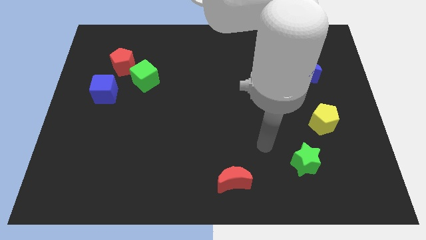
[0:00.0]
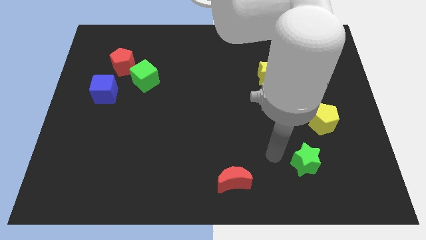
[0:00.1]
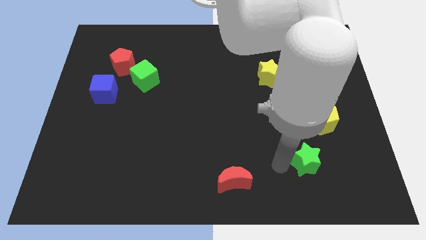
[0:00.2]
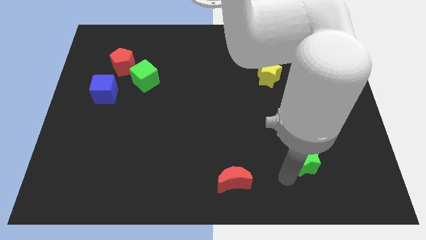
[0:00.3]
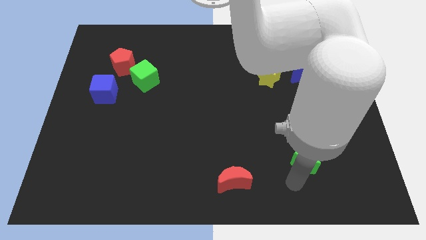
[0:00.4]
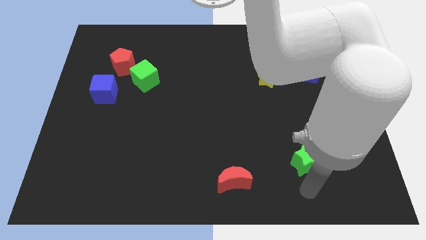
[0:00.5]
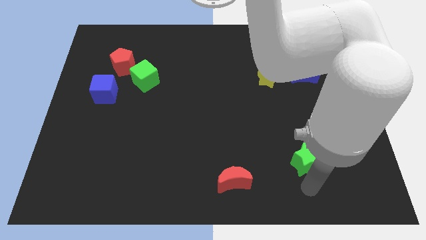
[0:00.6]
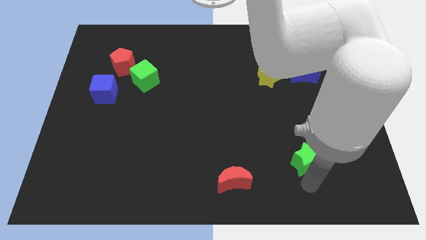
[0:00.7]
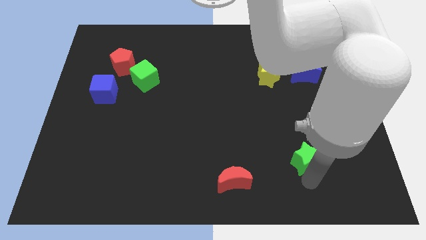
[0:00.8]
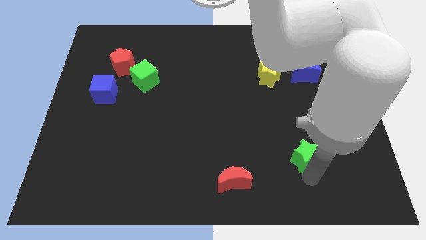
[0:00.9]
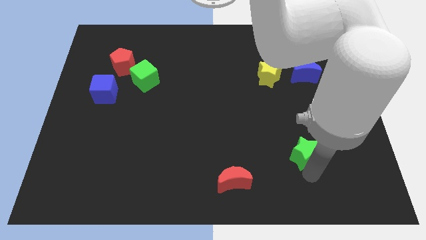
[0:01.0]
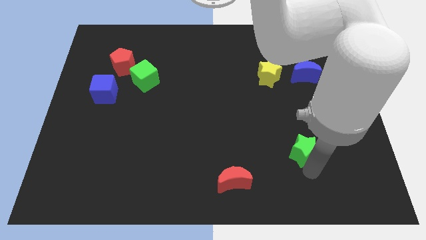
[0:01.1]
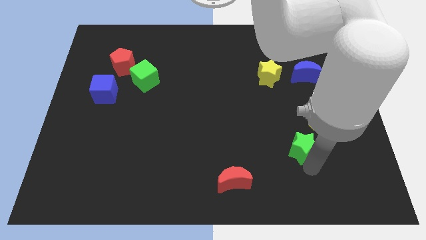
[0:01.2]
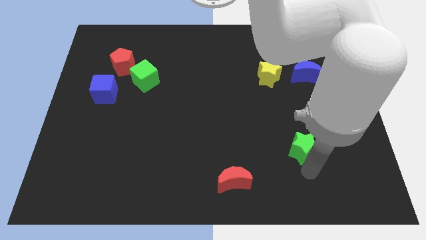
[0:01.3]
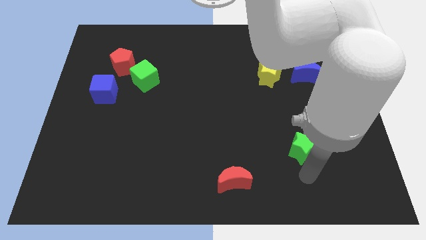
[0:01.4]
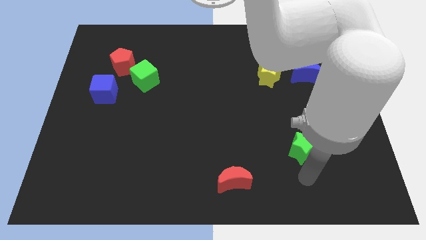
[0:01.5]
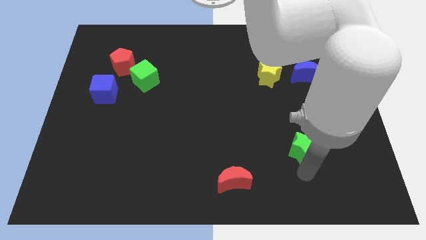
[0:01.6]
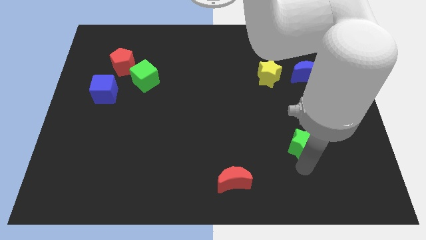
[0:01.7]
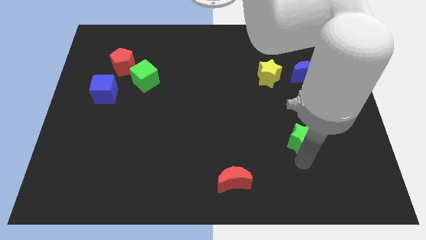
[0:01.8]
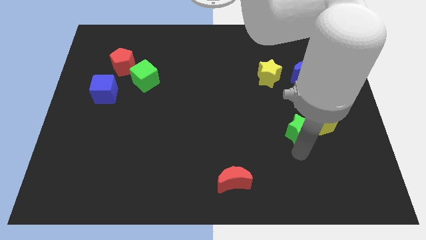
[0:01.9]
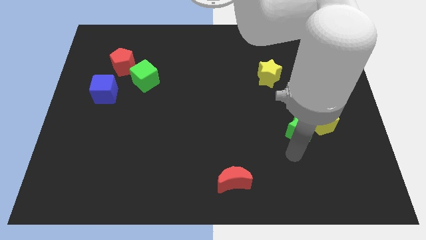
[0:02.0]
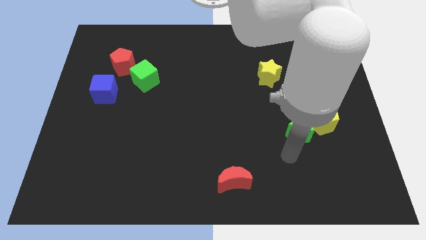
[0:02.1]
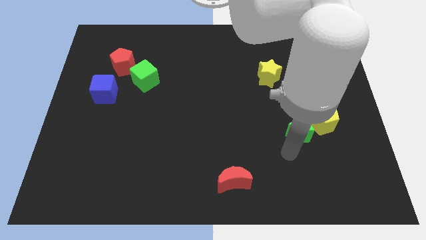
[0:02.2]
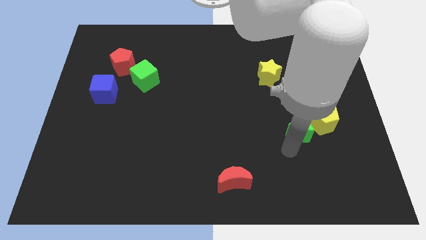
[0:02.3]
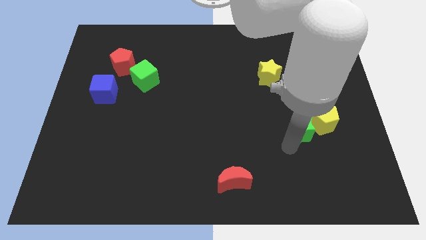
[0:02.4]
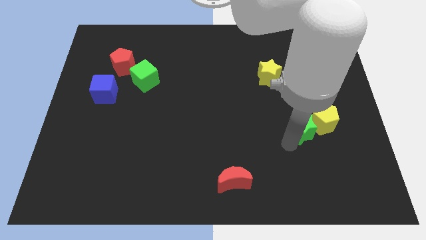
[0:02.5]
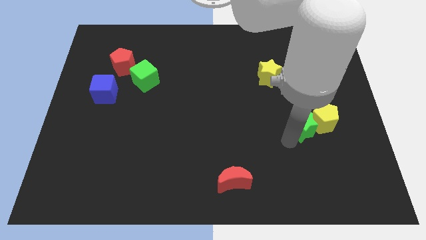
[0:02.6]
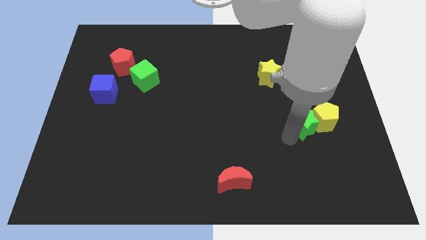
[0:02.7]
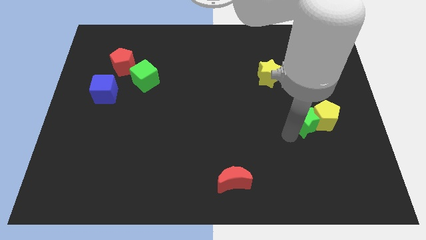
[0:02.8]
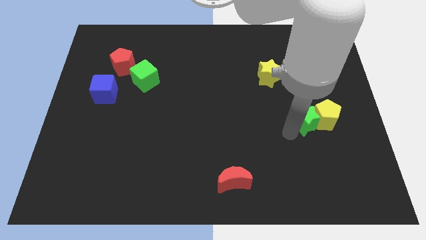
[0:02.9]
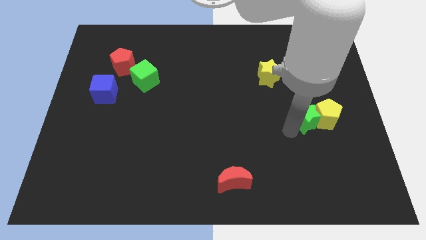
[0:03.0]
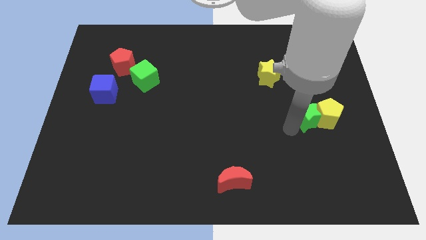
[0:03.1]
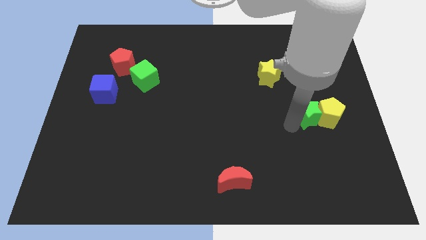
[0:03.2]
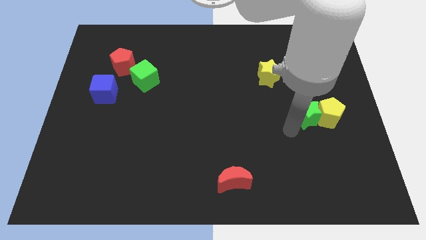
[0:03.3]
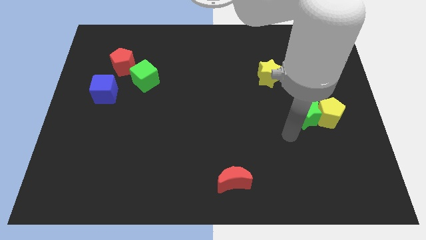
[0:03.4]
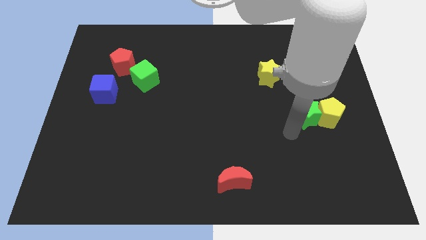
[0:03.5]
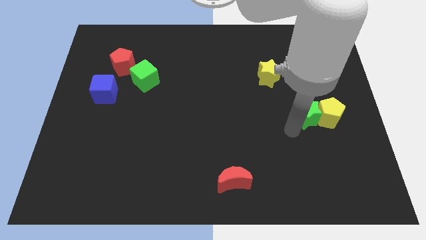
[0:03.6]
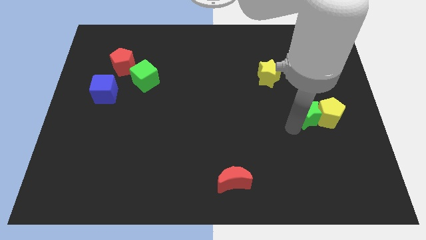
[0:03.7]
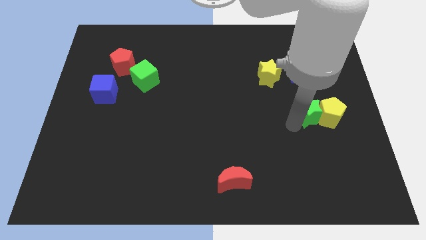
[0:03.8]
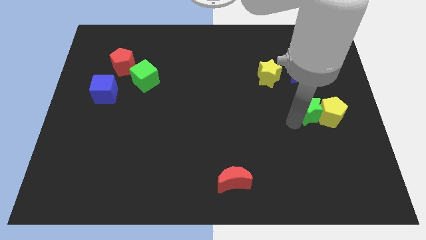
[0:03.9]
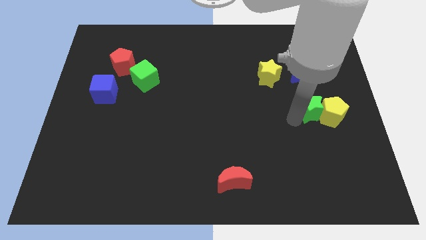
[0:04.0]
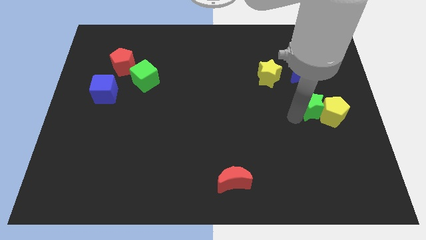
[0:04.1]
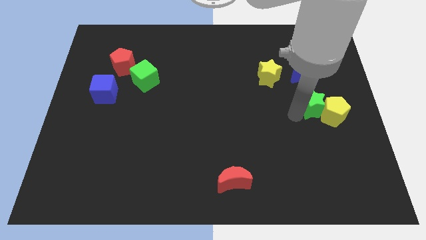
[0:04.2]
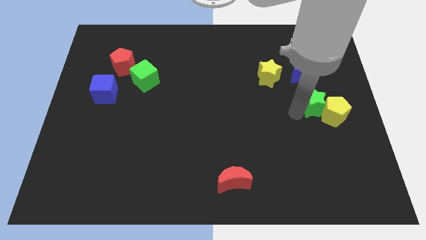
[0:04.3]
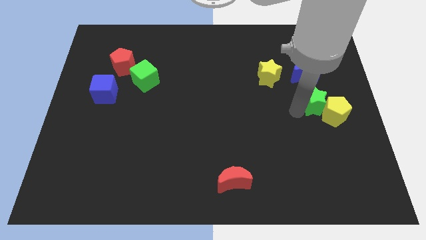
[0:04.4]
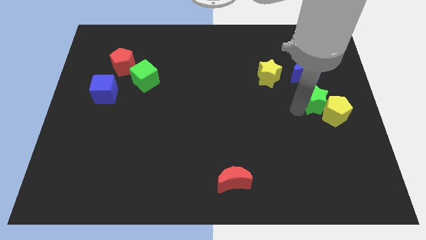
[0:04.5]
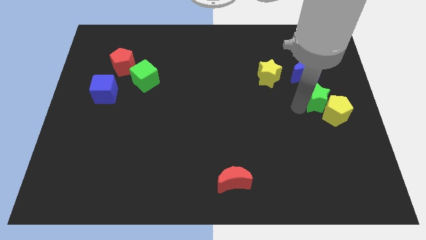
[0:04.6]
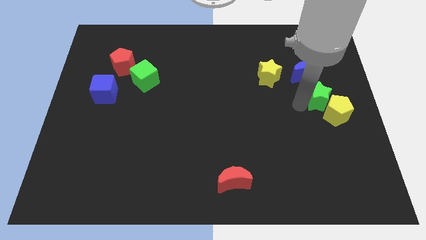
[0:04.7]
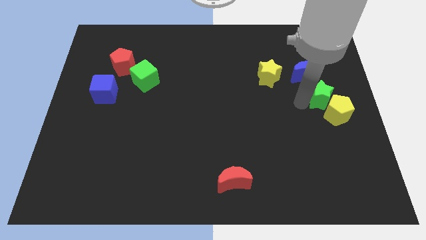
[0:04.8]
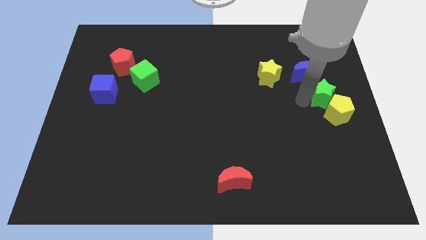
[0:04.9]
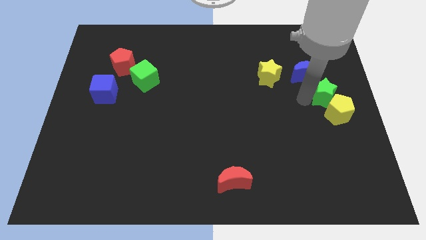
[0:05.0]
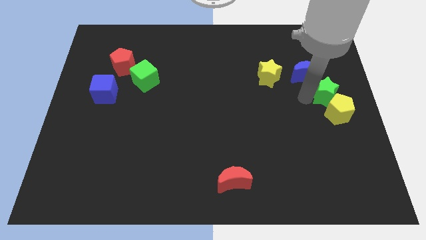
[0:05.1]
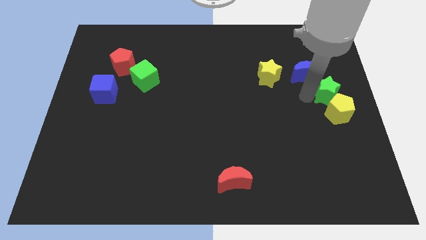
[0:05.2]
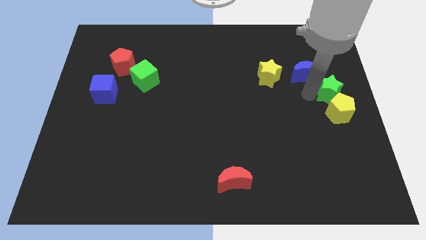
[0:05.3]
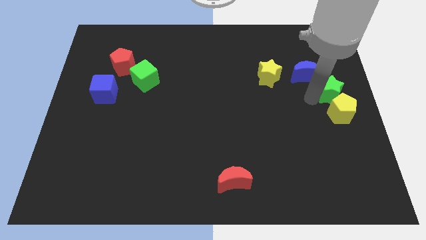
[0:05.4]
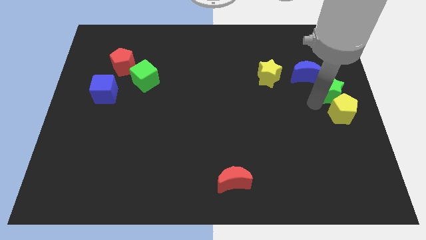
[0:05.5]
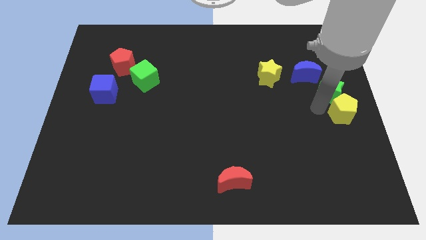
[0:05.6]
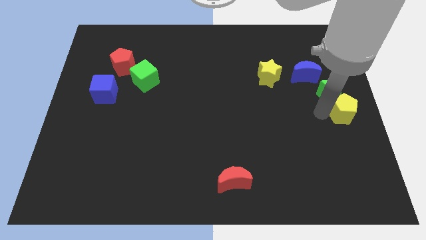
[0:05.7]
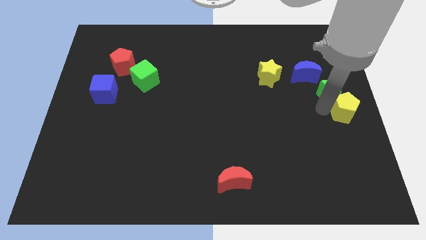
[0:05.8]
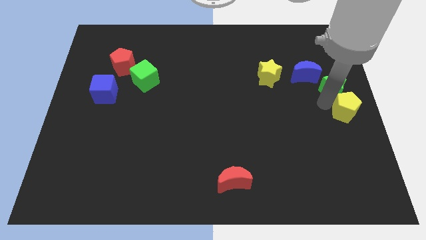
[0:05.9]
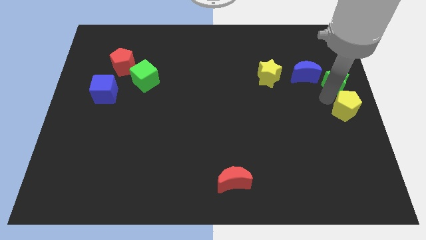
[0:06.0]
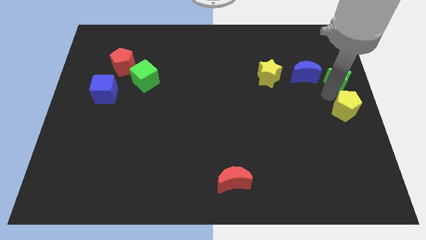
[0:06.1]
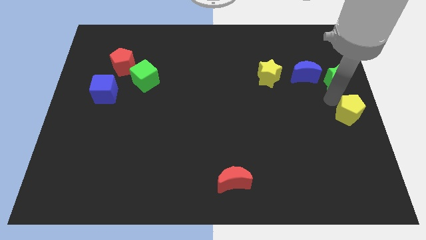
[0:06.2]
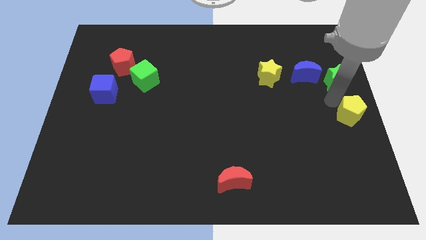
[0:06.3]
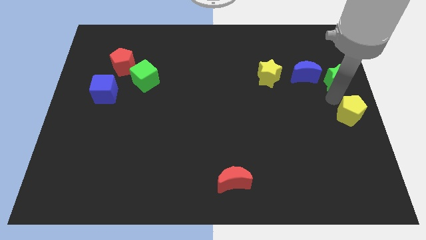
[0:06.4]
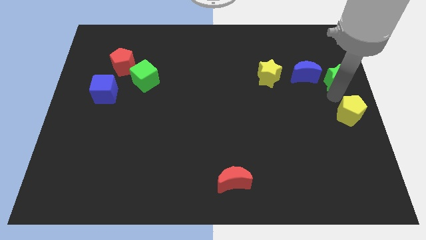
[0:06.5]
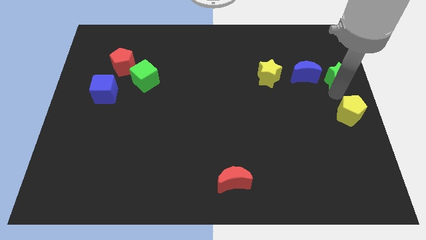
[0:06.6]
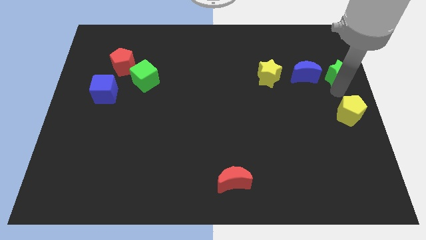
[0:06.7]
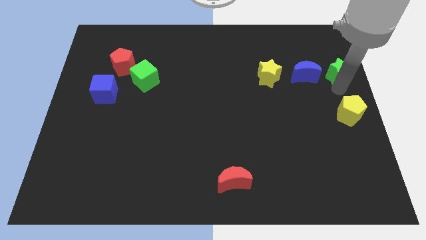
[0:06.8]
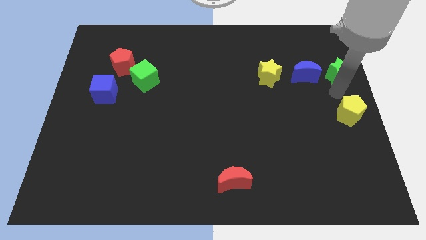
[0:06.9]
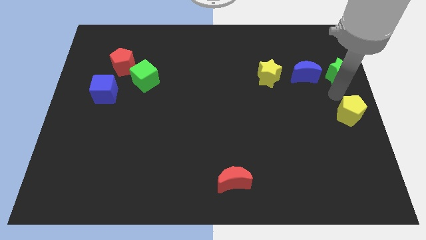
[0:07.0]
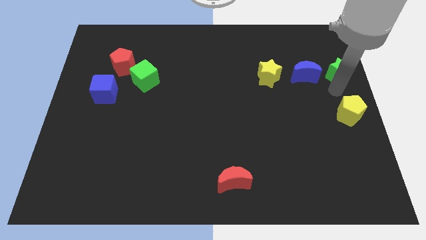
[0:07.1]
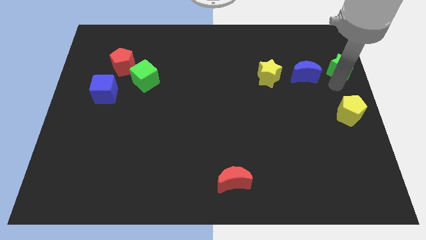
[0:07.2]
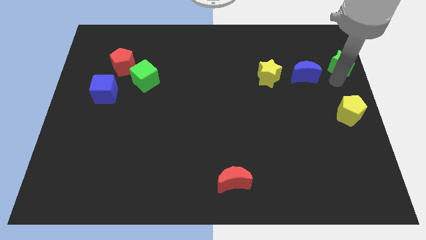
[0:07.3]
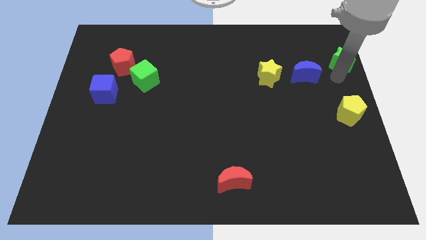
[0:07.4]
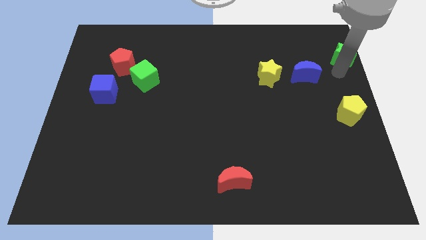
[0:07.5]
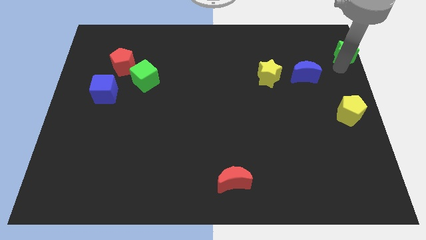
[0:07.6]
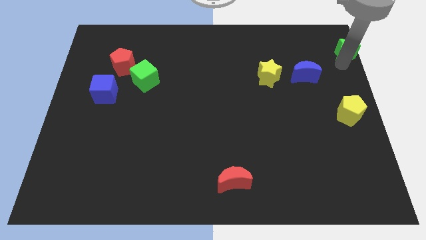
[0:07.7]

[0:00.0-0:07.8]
slide the green star to the top right corner
